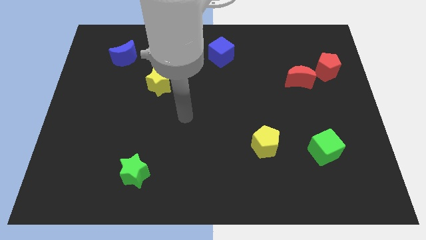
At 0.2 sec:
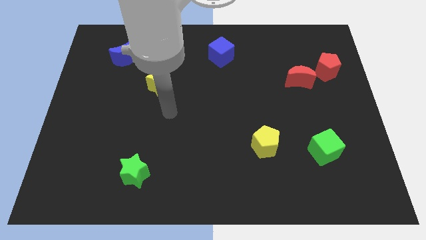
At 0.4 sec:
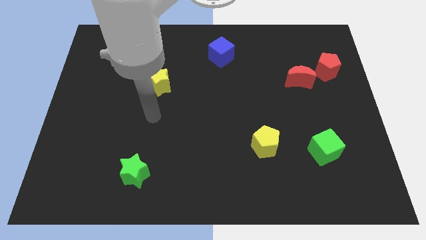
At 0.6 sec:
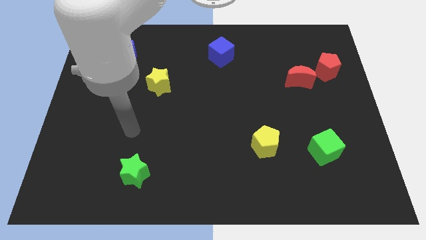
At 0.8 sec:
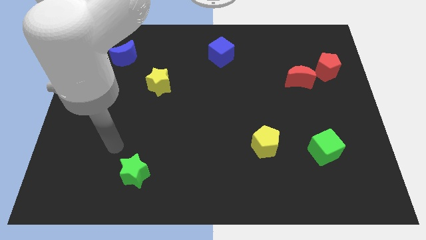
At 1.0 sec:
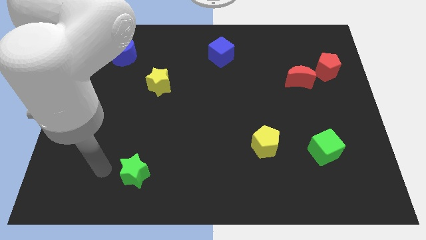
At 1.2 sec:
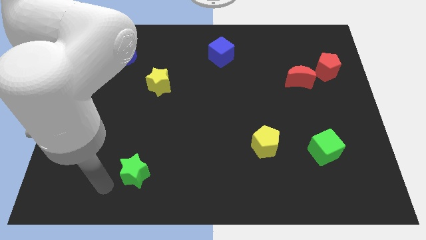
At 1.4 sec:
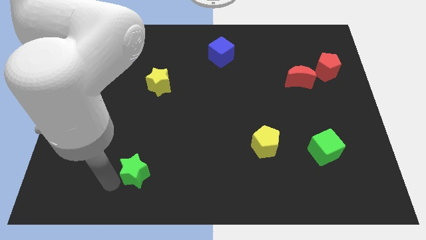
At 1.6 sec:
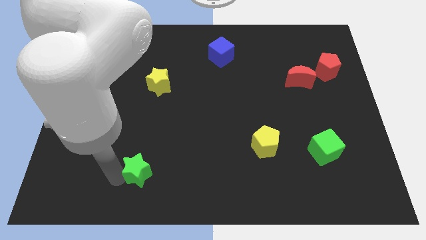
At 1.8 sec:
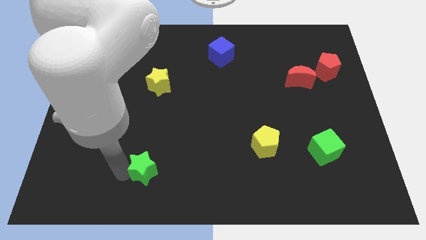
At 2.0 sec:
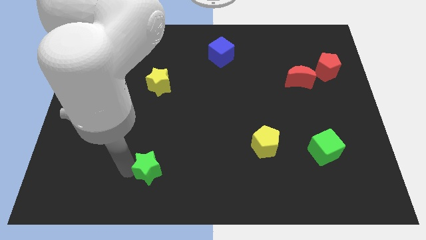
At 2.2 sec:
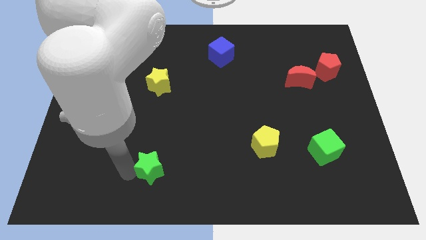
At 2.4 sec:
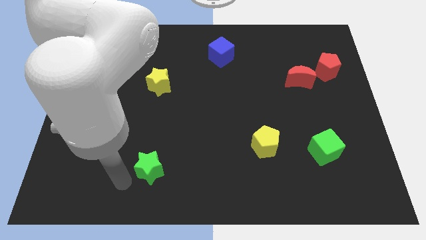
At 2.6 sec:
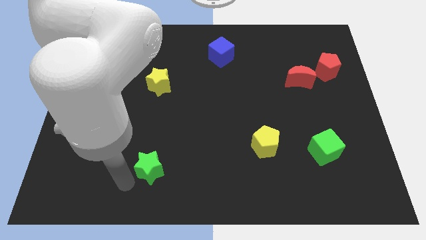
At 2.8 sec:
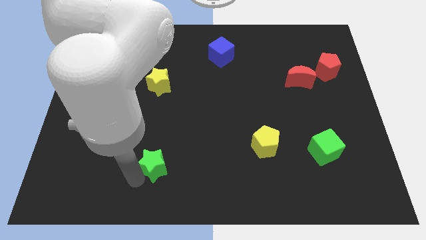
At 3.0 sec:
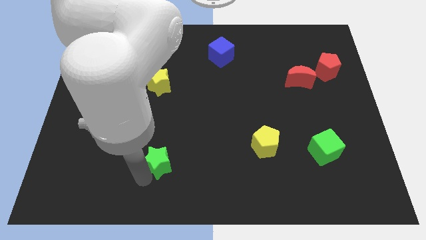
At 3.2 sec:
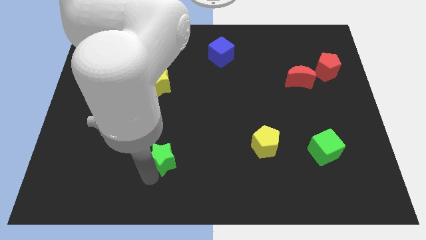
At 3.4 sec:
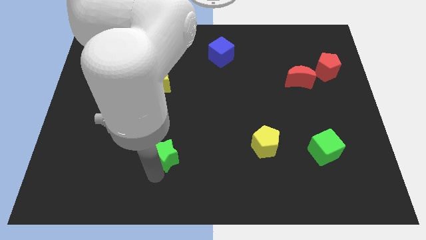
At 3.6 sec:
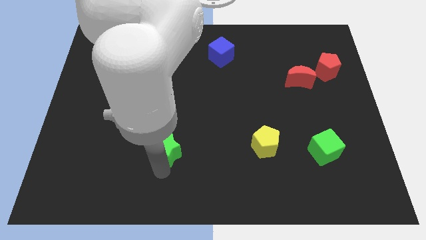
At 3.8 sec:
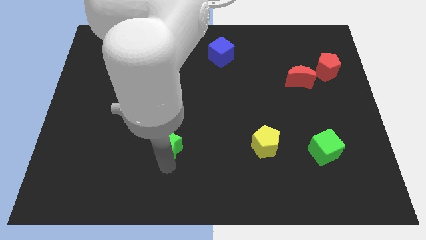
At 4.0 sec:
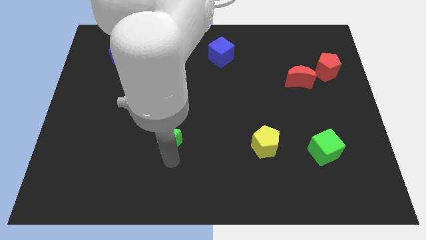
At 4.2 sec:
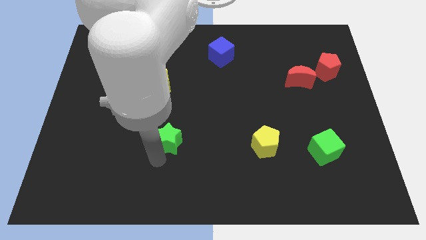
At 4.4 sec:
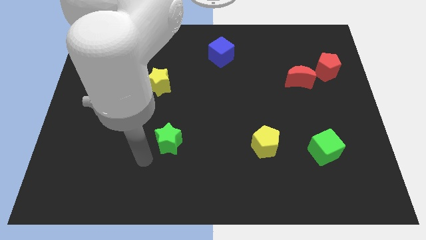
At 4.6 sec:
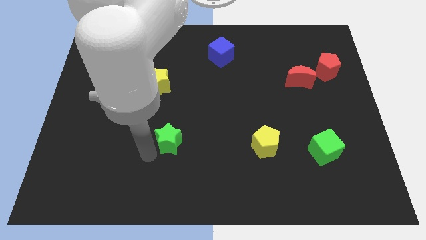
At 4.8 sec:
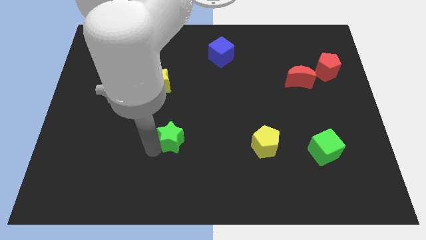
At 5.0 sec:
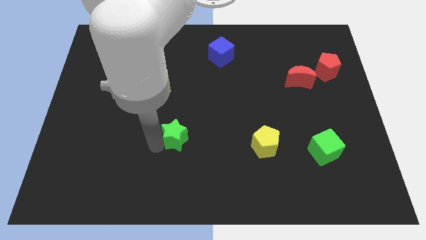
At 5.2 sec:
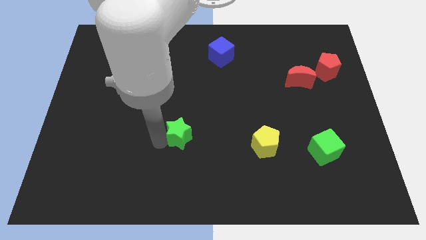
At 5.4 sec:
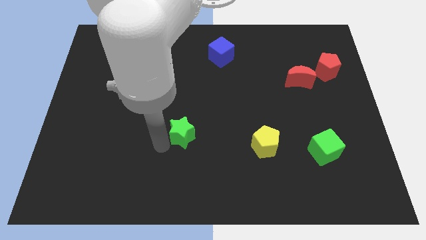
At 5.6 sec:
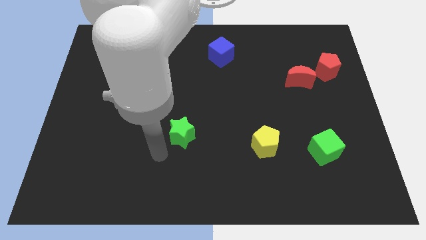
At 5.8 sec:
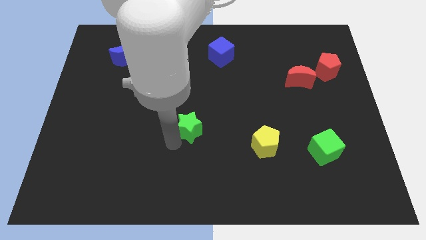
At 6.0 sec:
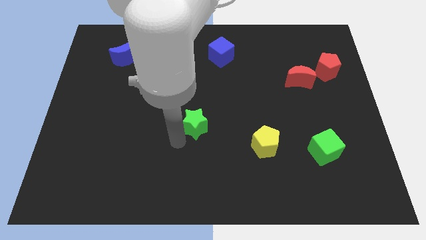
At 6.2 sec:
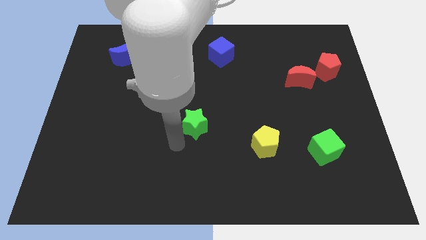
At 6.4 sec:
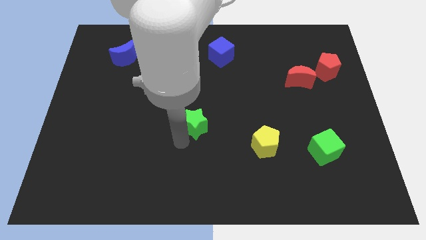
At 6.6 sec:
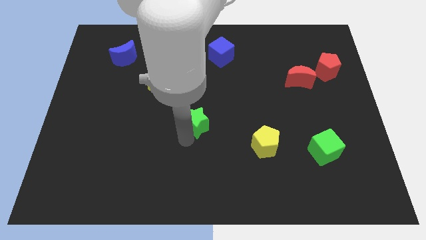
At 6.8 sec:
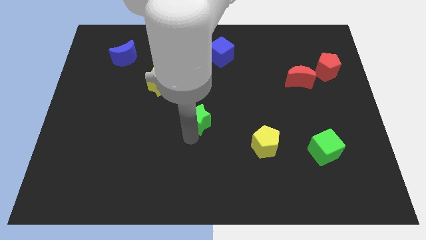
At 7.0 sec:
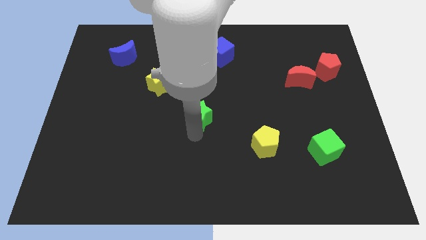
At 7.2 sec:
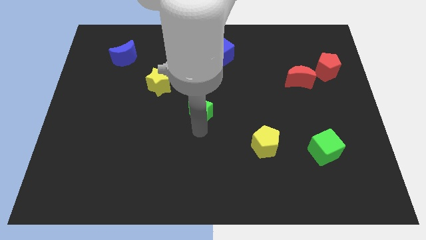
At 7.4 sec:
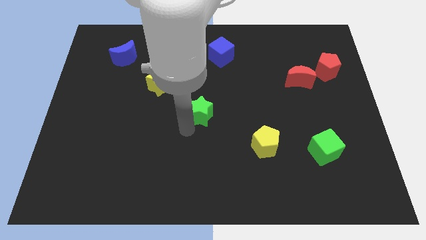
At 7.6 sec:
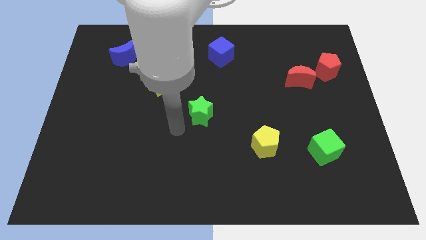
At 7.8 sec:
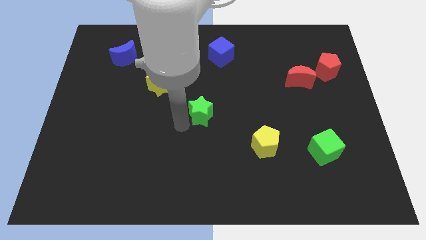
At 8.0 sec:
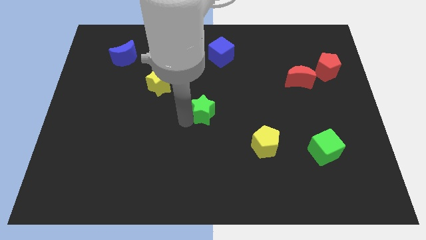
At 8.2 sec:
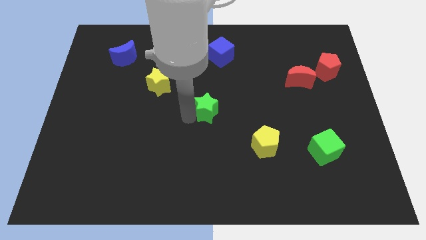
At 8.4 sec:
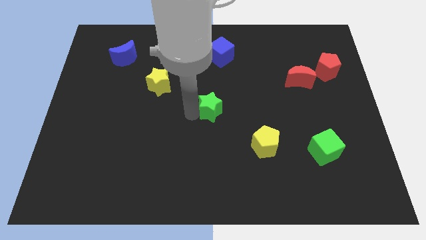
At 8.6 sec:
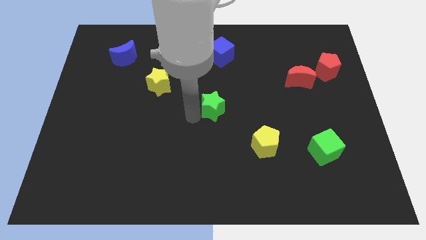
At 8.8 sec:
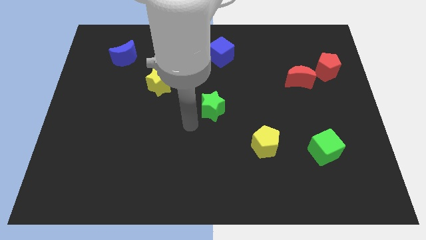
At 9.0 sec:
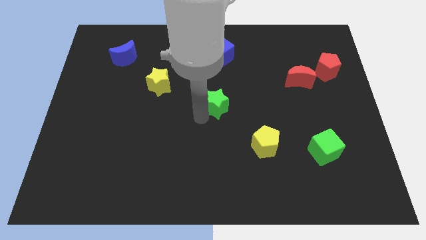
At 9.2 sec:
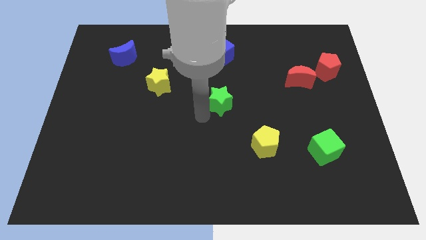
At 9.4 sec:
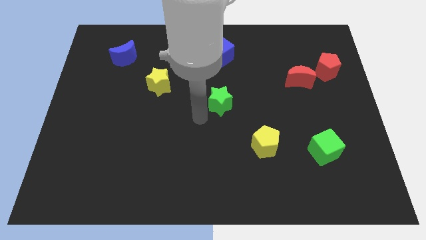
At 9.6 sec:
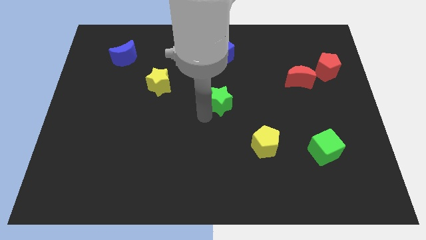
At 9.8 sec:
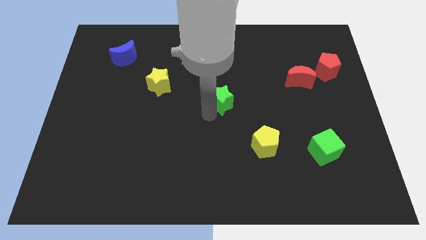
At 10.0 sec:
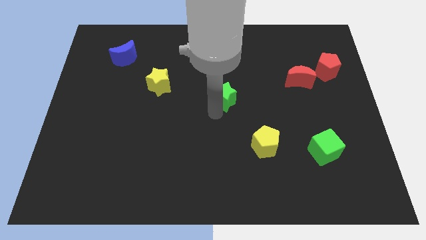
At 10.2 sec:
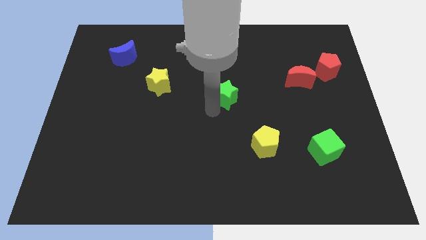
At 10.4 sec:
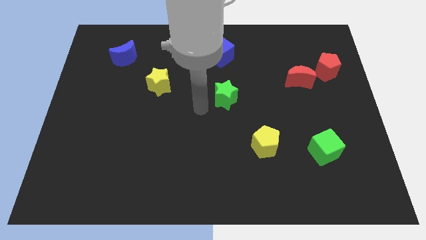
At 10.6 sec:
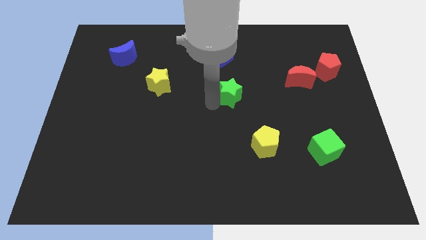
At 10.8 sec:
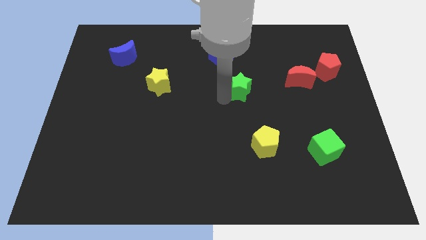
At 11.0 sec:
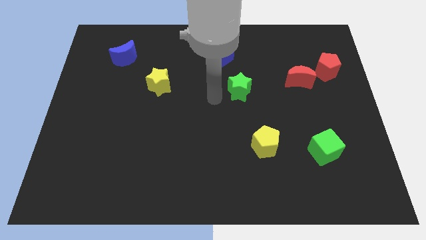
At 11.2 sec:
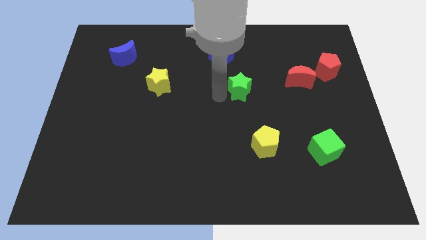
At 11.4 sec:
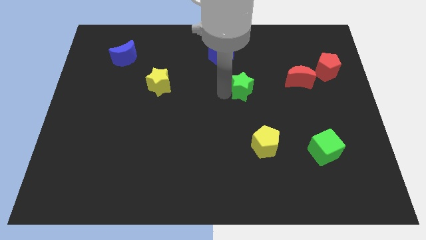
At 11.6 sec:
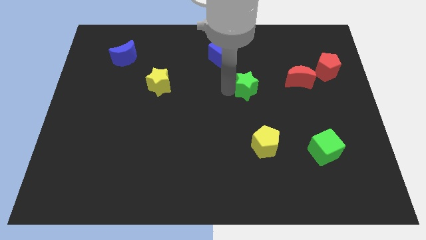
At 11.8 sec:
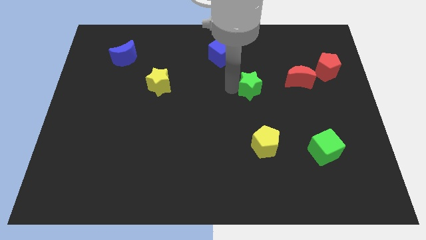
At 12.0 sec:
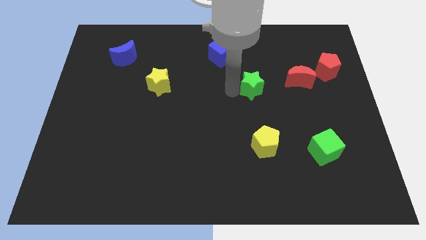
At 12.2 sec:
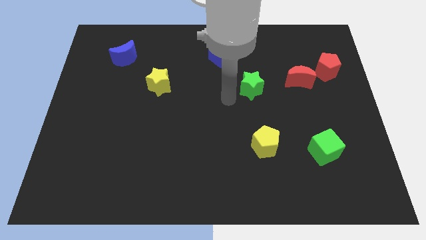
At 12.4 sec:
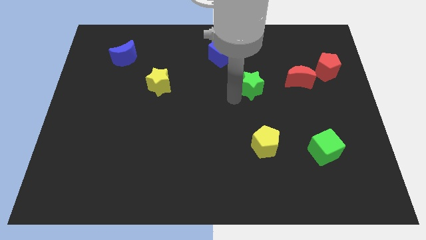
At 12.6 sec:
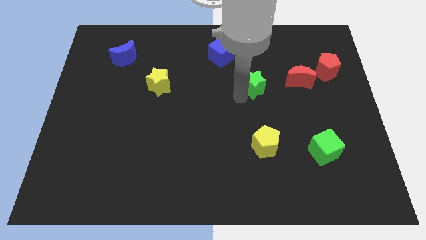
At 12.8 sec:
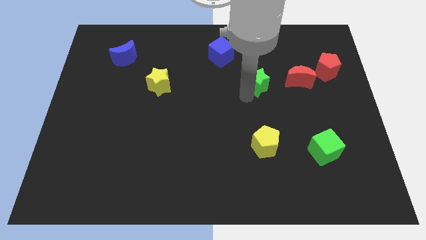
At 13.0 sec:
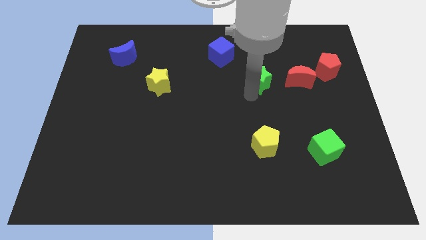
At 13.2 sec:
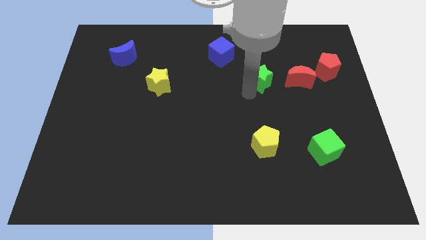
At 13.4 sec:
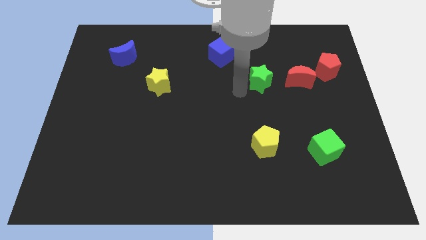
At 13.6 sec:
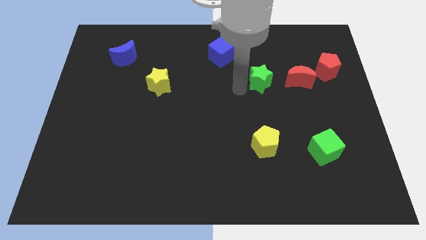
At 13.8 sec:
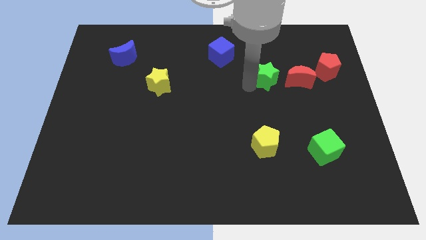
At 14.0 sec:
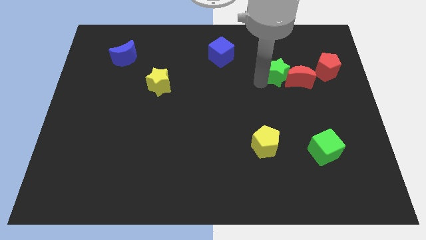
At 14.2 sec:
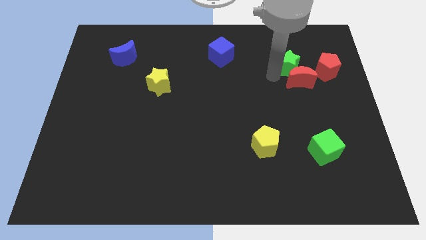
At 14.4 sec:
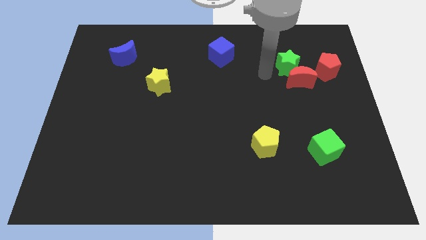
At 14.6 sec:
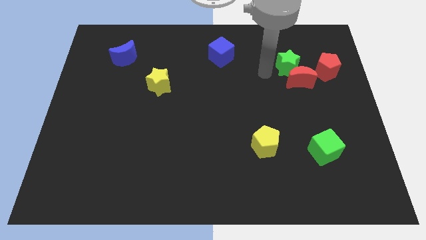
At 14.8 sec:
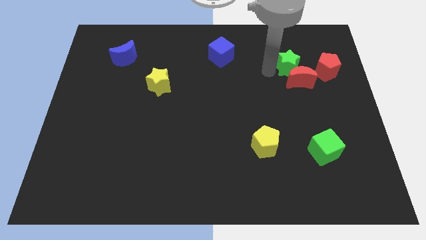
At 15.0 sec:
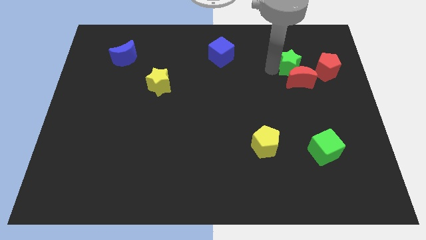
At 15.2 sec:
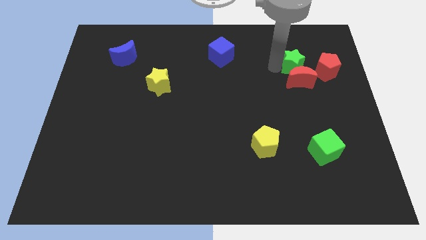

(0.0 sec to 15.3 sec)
put the green star to the top right side of the red moon
